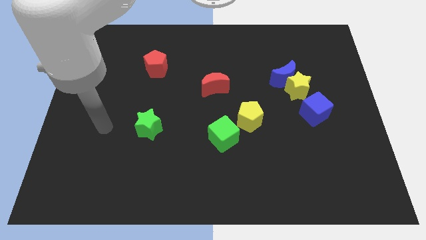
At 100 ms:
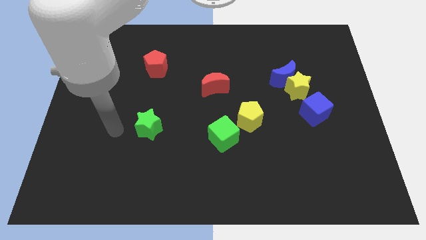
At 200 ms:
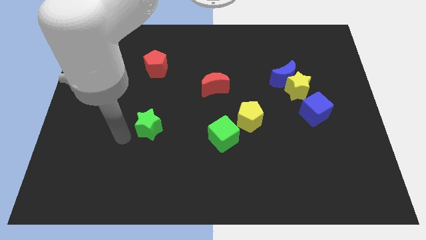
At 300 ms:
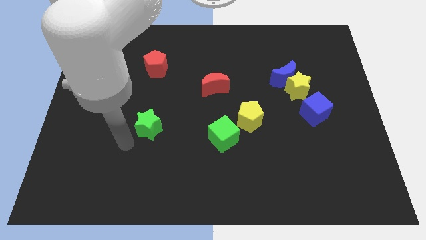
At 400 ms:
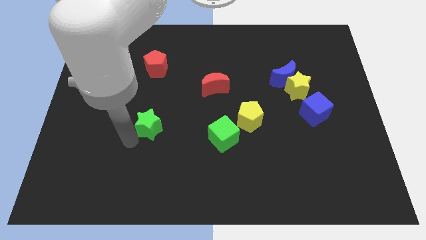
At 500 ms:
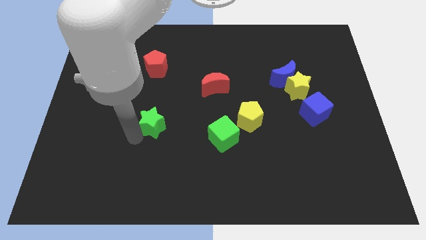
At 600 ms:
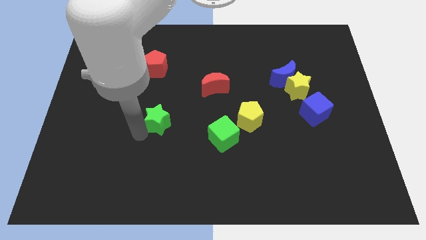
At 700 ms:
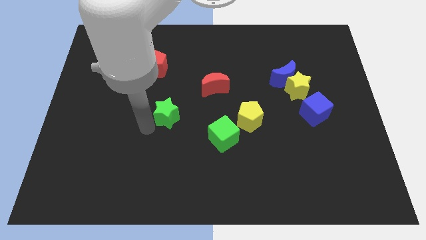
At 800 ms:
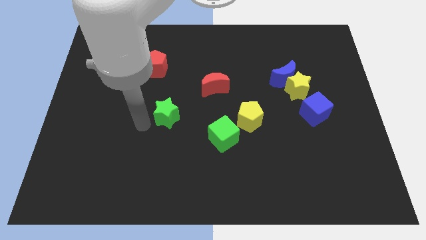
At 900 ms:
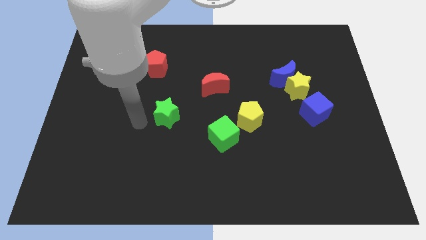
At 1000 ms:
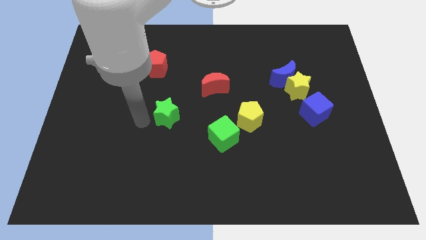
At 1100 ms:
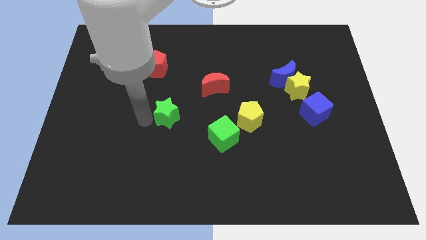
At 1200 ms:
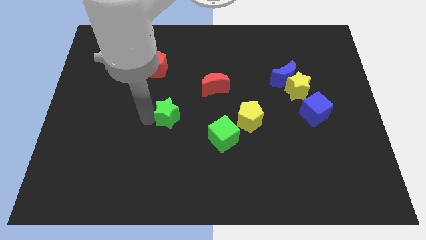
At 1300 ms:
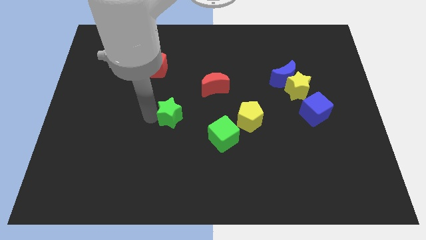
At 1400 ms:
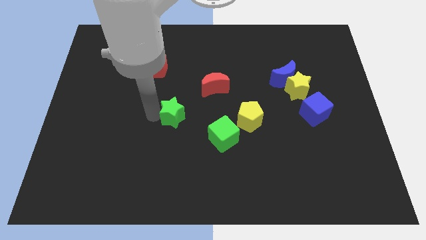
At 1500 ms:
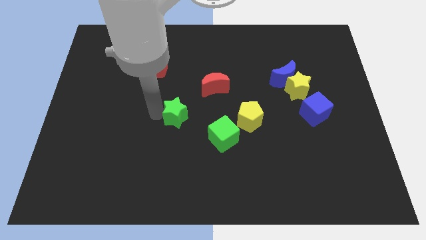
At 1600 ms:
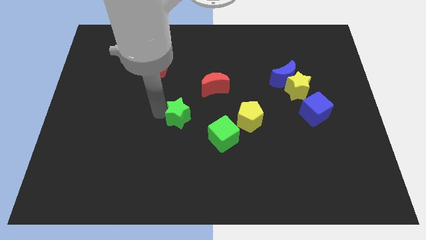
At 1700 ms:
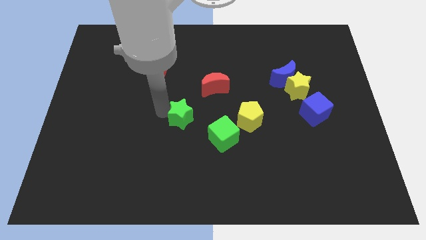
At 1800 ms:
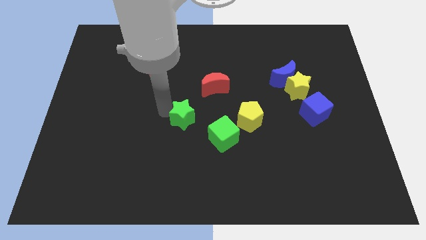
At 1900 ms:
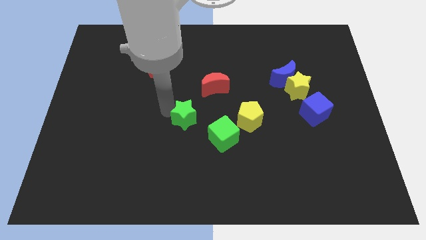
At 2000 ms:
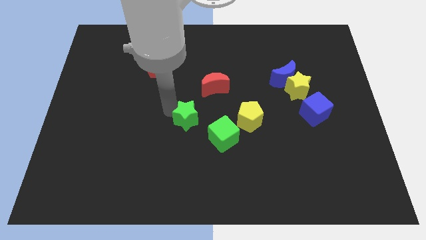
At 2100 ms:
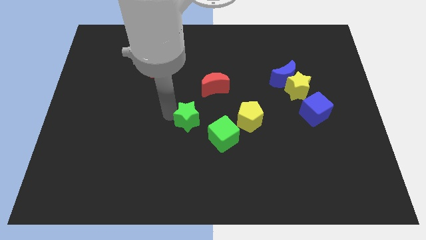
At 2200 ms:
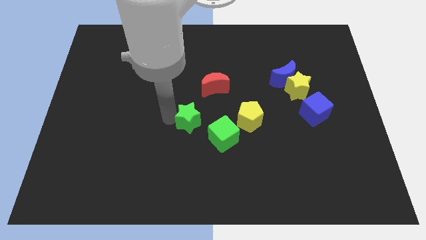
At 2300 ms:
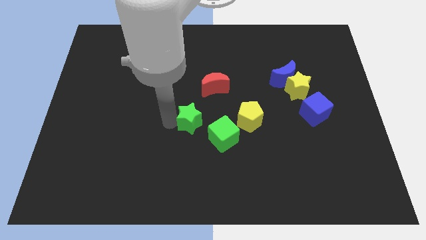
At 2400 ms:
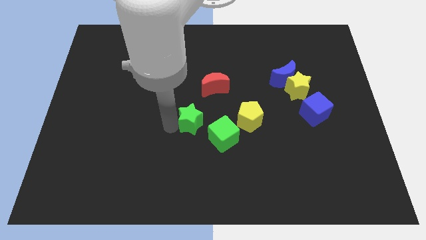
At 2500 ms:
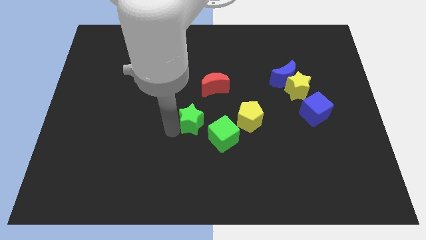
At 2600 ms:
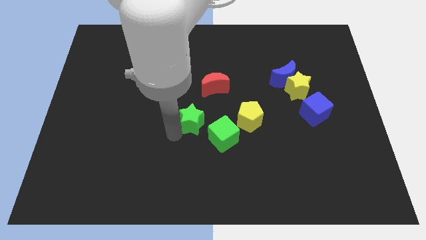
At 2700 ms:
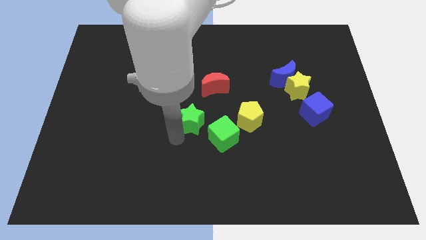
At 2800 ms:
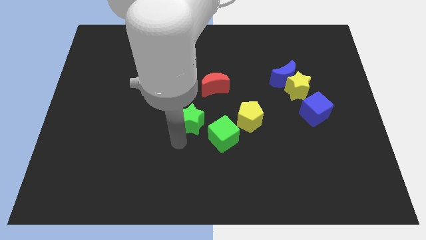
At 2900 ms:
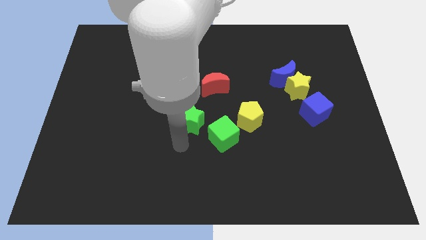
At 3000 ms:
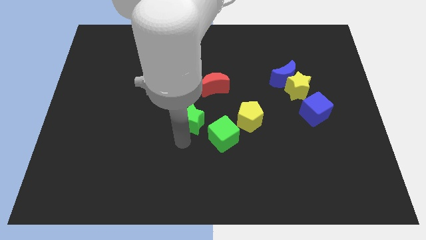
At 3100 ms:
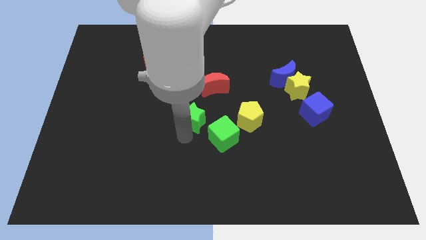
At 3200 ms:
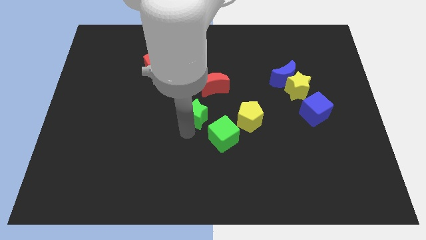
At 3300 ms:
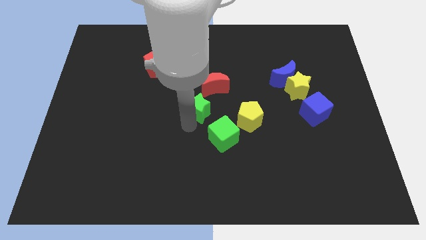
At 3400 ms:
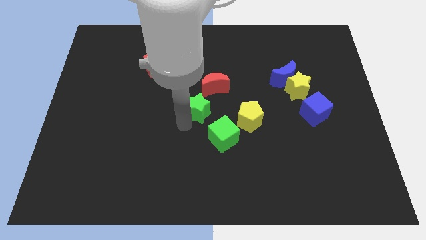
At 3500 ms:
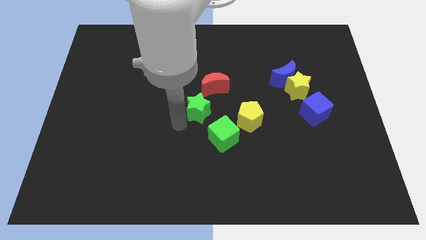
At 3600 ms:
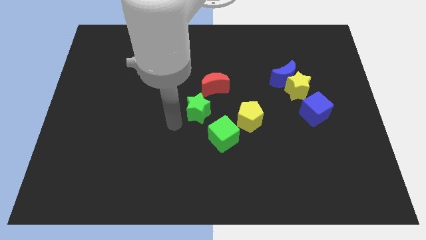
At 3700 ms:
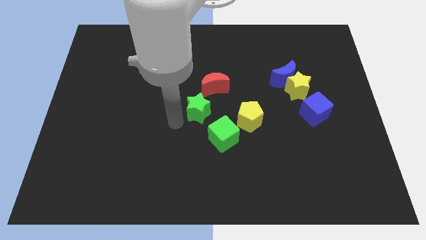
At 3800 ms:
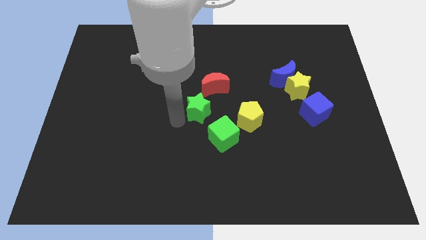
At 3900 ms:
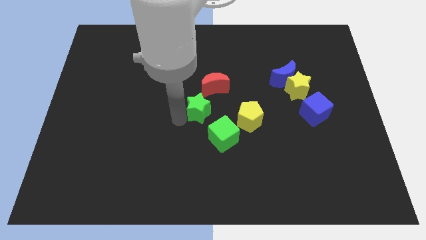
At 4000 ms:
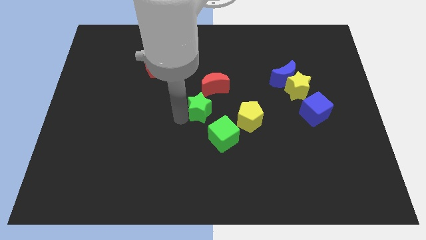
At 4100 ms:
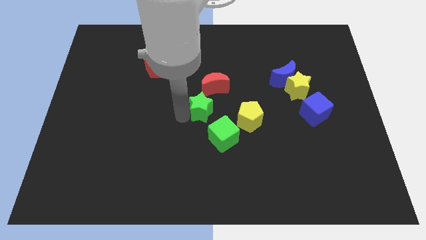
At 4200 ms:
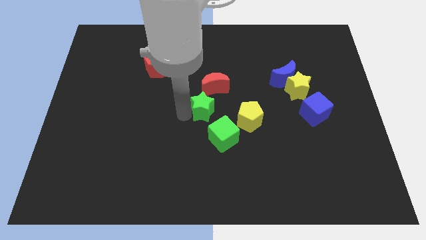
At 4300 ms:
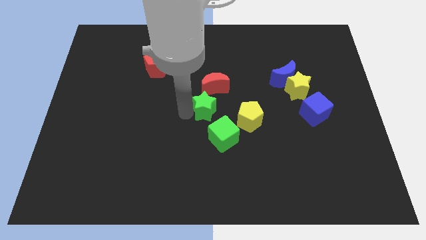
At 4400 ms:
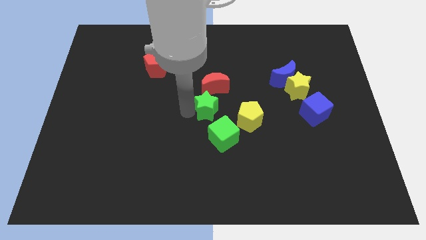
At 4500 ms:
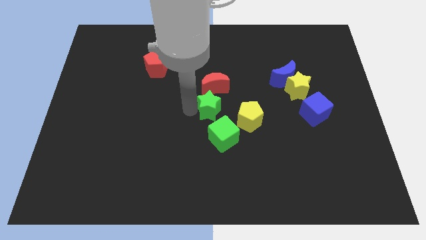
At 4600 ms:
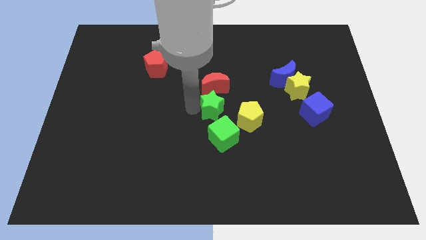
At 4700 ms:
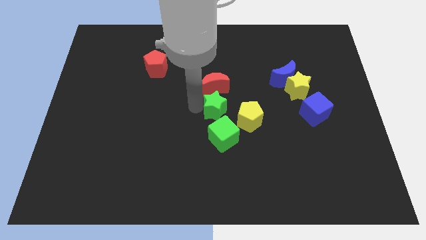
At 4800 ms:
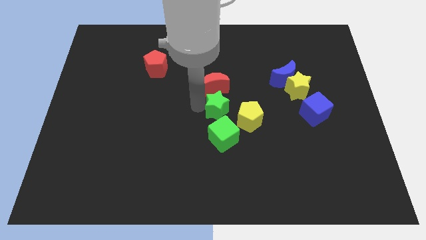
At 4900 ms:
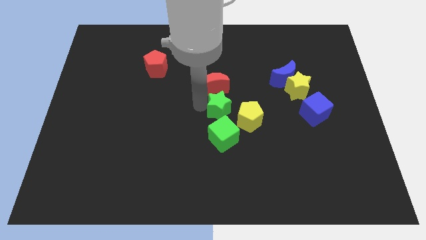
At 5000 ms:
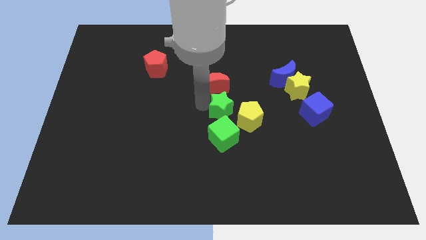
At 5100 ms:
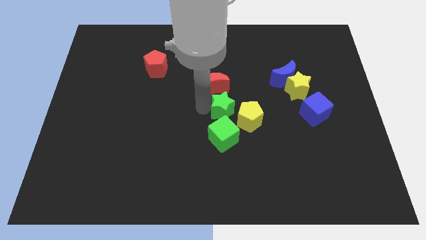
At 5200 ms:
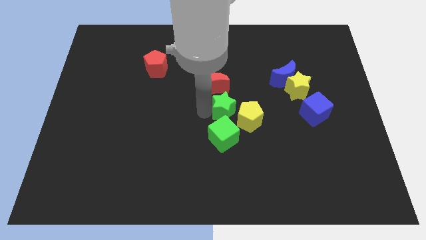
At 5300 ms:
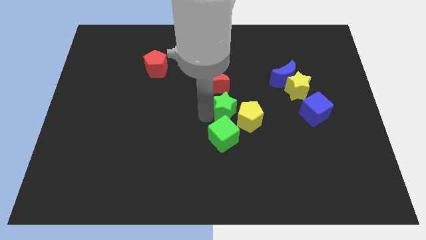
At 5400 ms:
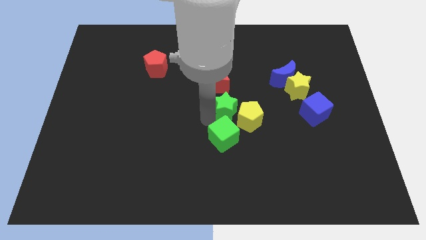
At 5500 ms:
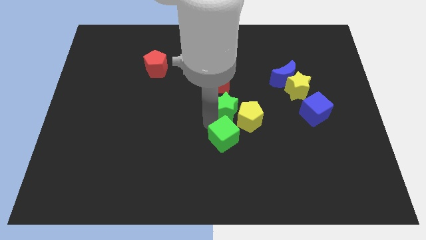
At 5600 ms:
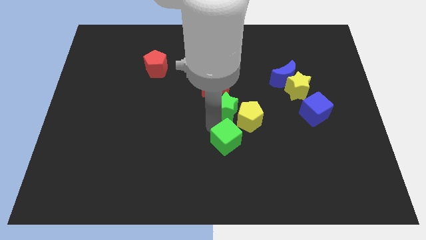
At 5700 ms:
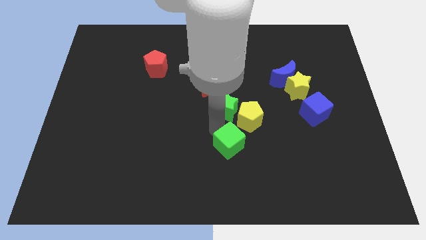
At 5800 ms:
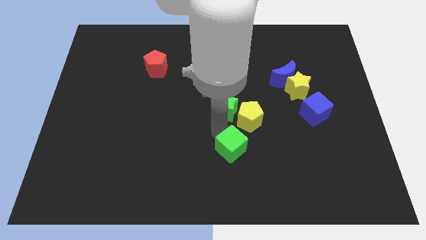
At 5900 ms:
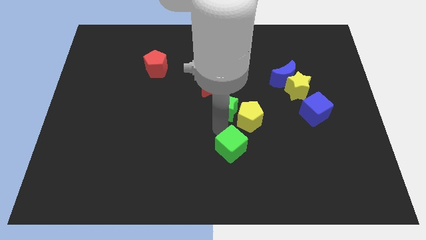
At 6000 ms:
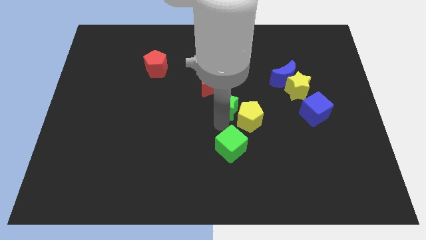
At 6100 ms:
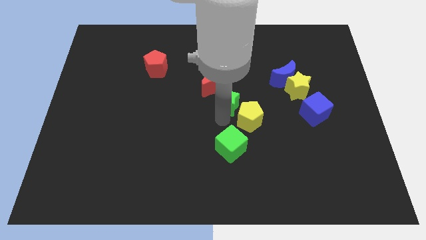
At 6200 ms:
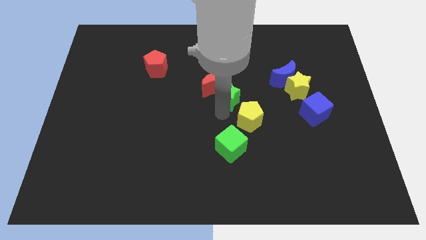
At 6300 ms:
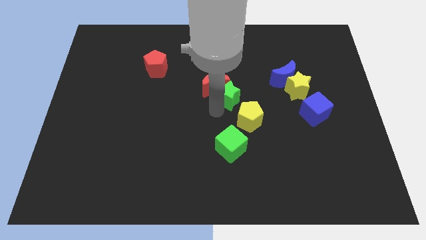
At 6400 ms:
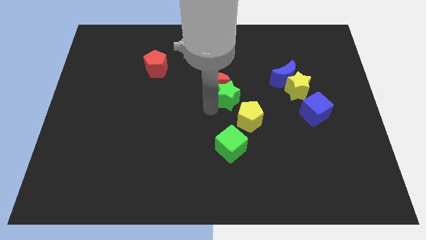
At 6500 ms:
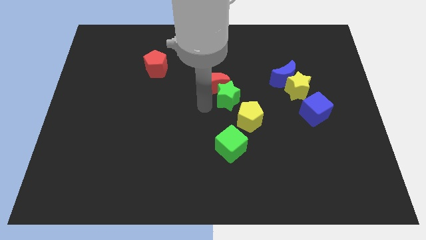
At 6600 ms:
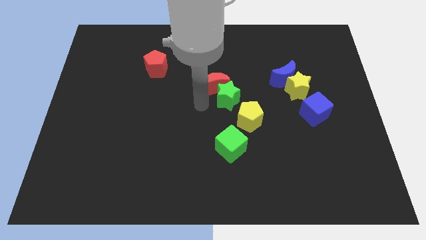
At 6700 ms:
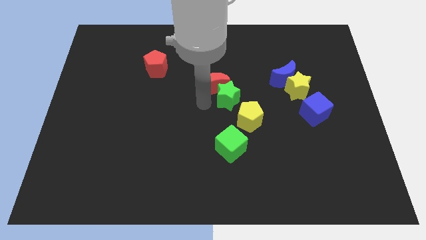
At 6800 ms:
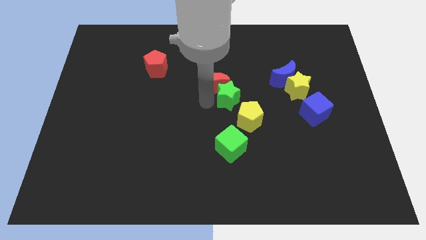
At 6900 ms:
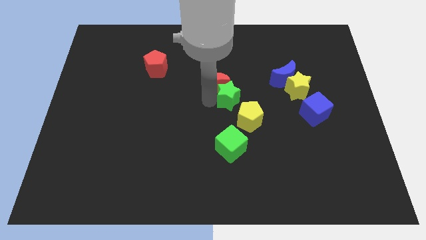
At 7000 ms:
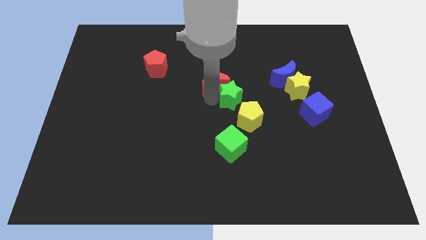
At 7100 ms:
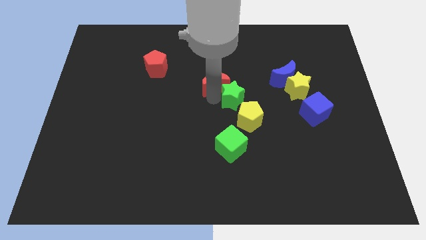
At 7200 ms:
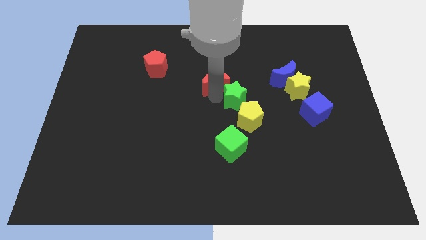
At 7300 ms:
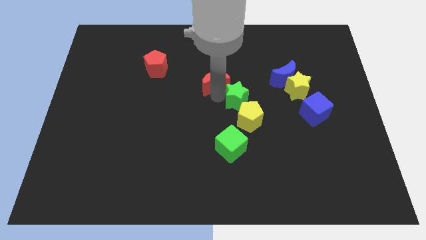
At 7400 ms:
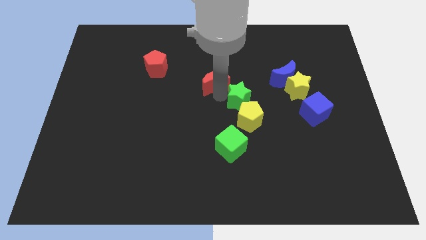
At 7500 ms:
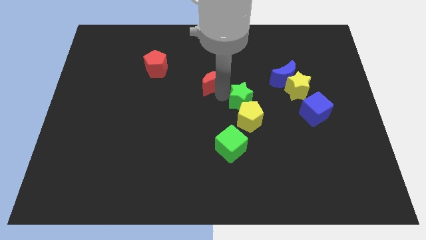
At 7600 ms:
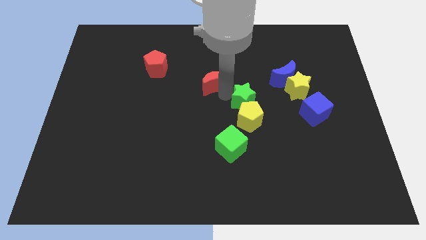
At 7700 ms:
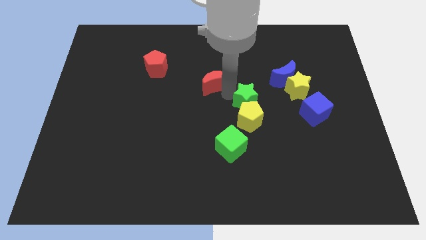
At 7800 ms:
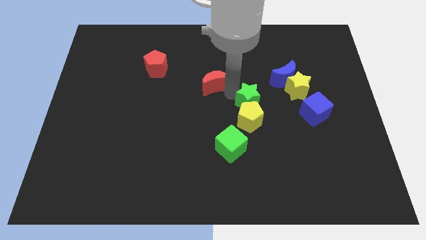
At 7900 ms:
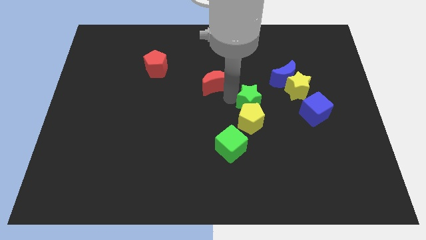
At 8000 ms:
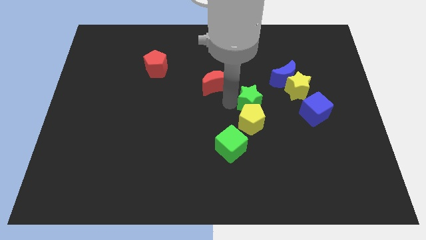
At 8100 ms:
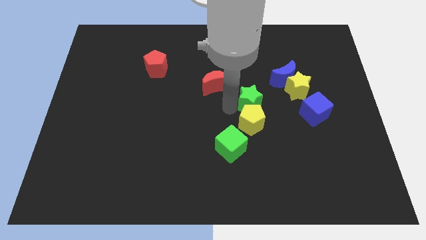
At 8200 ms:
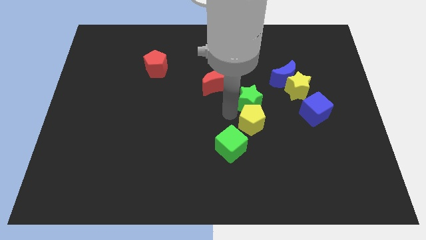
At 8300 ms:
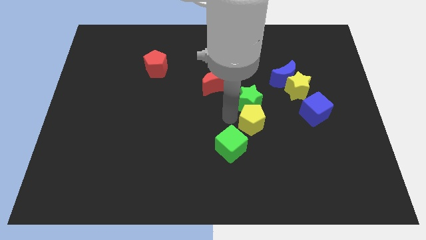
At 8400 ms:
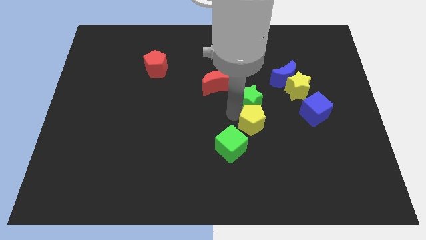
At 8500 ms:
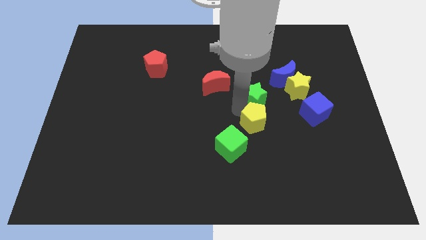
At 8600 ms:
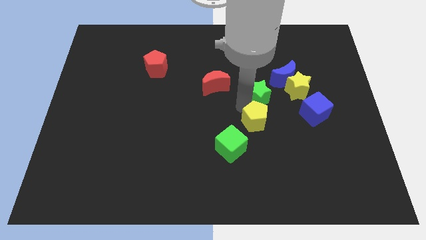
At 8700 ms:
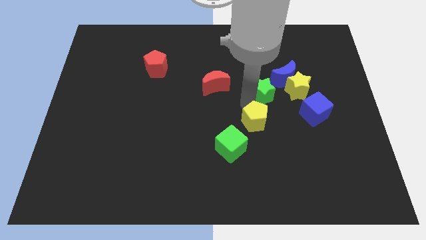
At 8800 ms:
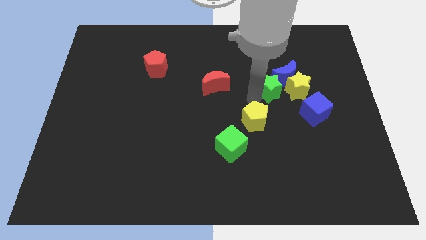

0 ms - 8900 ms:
put the green star next to the blue moon
